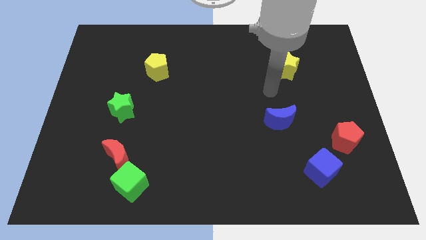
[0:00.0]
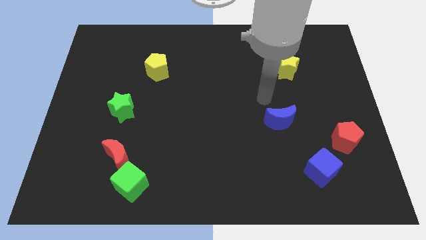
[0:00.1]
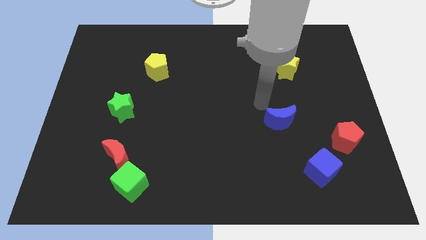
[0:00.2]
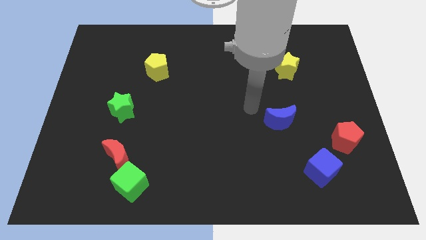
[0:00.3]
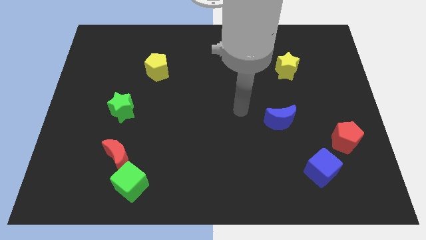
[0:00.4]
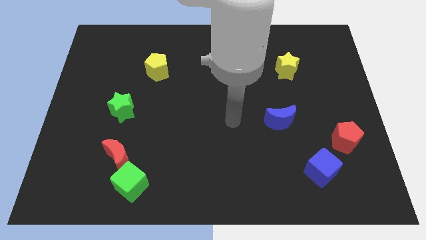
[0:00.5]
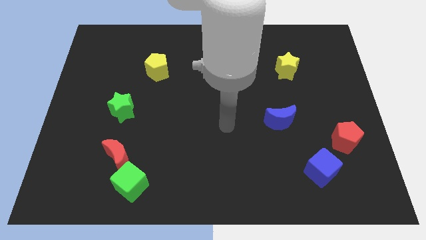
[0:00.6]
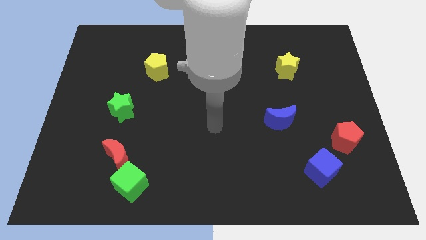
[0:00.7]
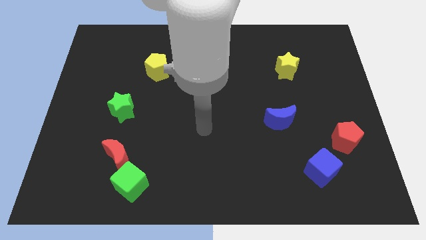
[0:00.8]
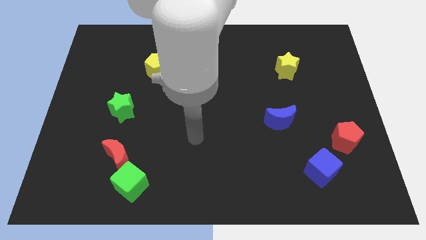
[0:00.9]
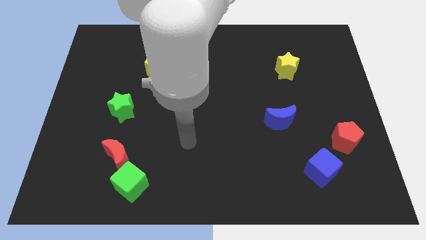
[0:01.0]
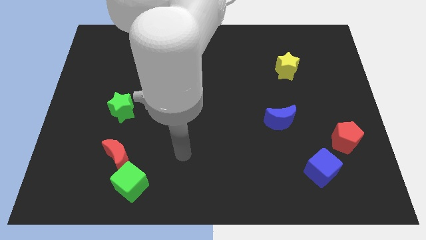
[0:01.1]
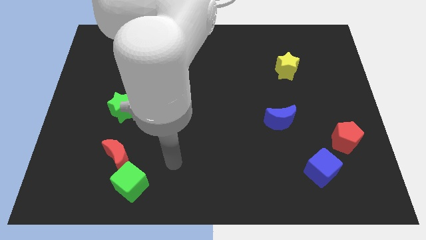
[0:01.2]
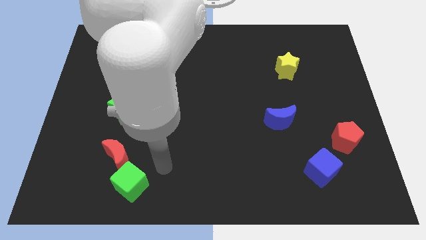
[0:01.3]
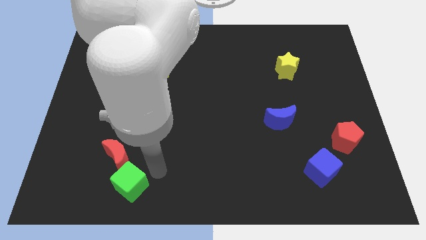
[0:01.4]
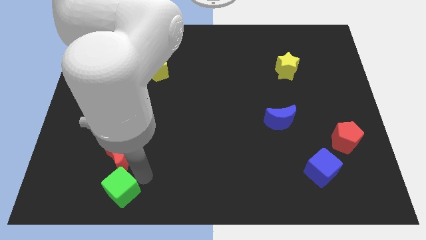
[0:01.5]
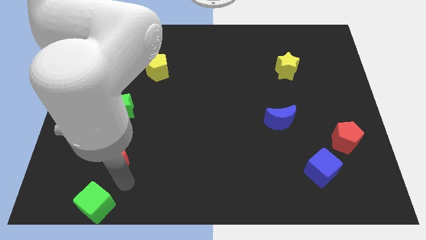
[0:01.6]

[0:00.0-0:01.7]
separate the red moon from the green cube

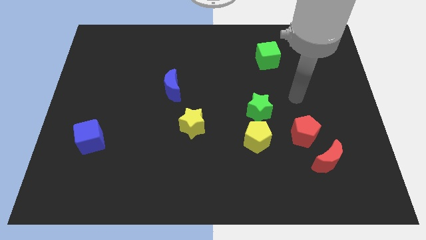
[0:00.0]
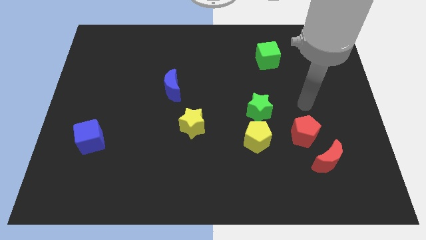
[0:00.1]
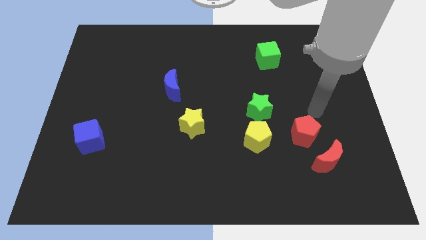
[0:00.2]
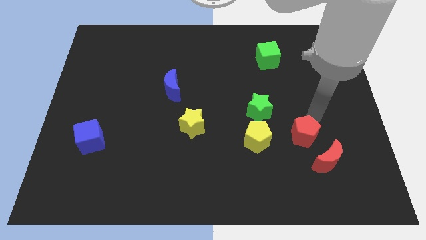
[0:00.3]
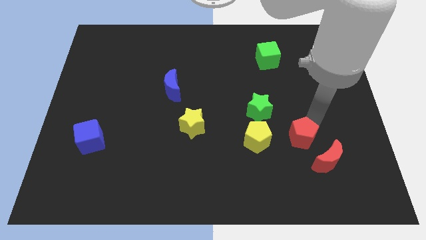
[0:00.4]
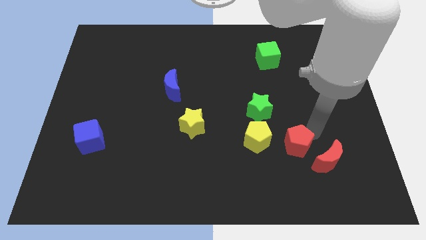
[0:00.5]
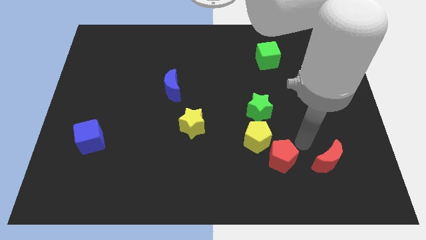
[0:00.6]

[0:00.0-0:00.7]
move the red moon away from the red pentagon

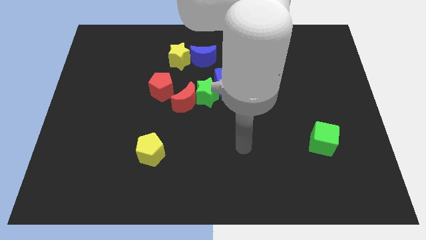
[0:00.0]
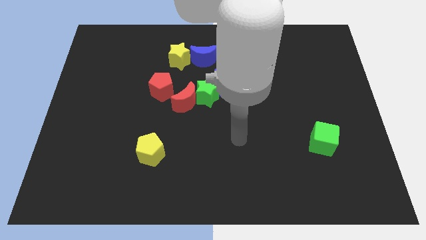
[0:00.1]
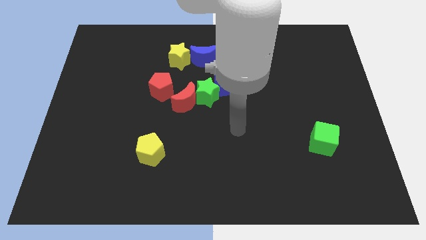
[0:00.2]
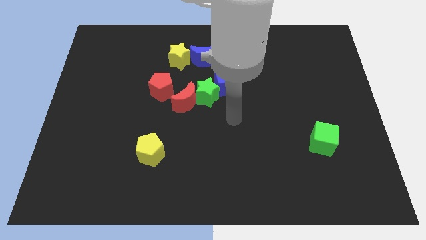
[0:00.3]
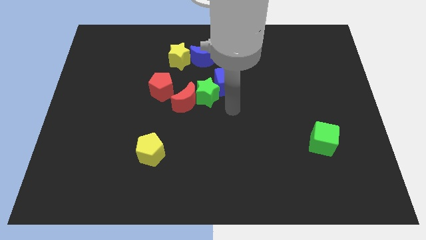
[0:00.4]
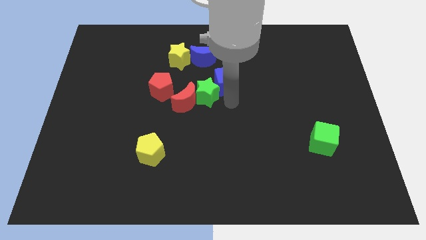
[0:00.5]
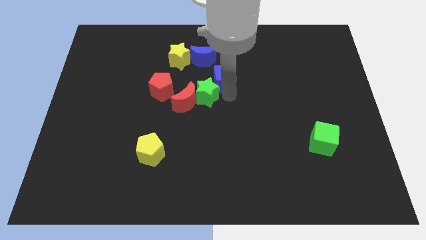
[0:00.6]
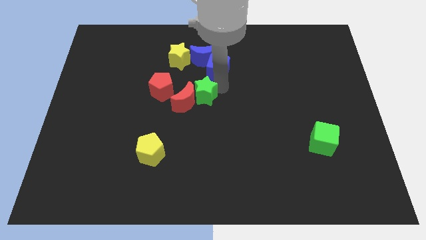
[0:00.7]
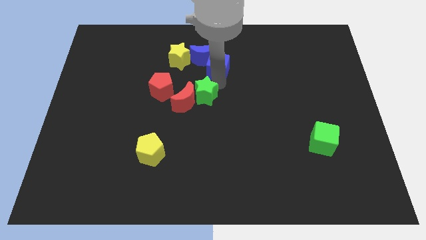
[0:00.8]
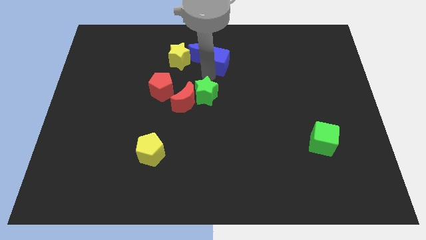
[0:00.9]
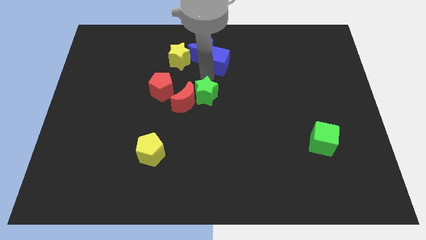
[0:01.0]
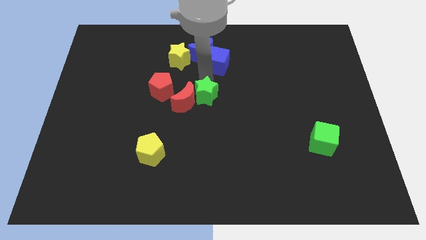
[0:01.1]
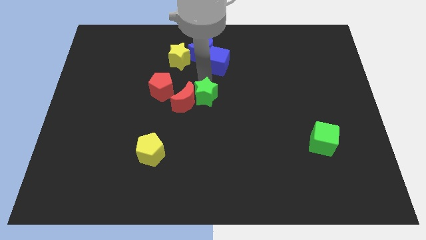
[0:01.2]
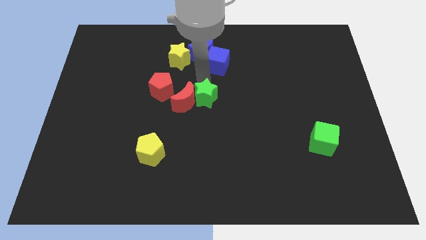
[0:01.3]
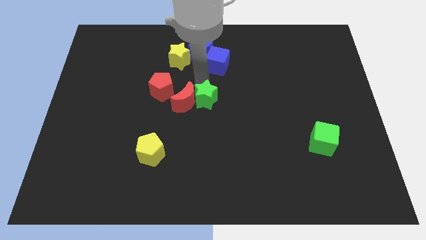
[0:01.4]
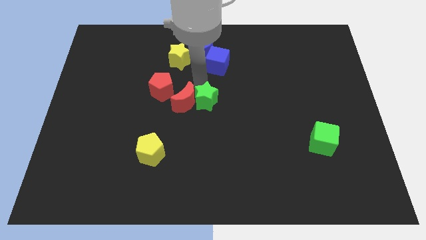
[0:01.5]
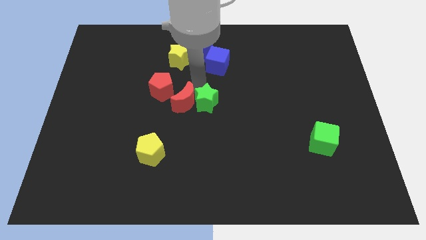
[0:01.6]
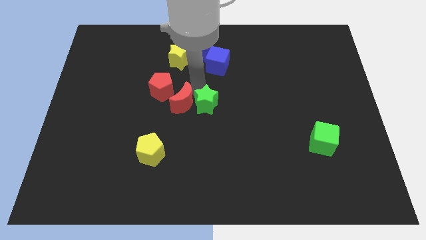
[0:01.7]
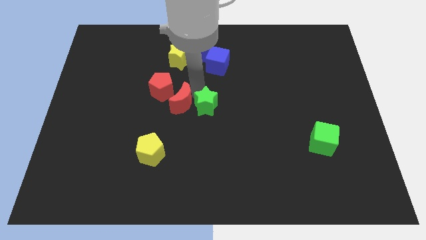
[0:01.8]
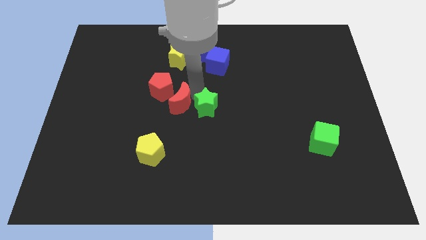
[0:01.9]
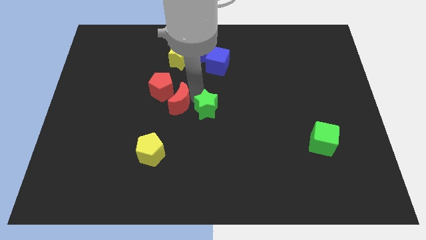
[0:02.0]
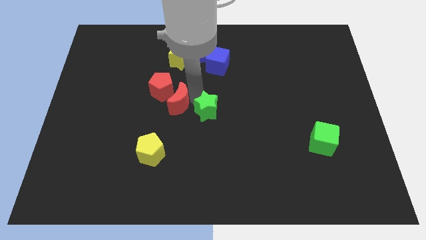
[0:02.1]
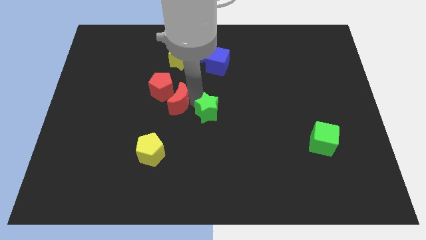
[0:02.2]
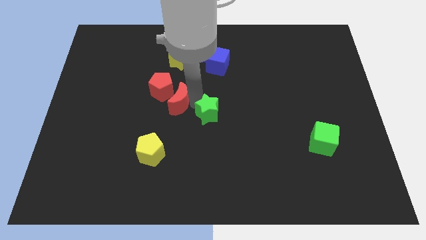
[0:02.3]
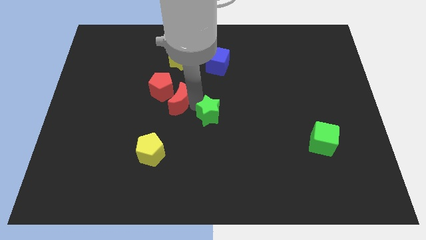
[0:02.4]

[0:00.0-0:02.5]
separate the green star from the red moon and blue cube

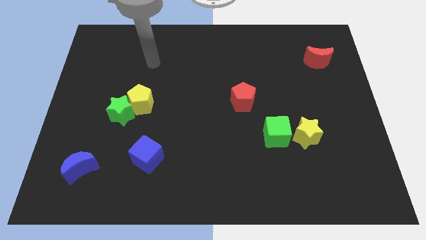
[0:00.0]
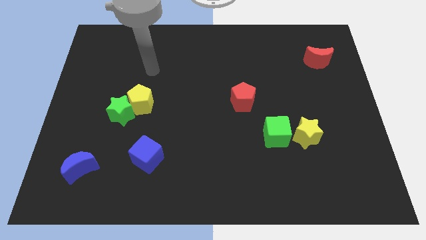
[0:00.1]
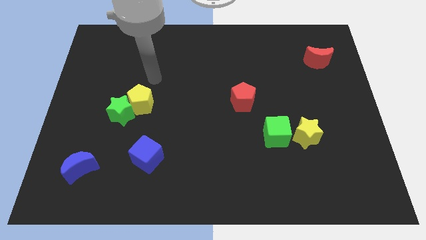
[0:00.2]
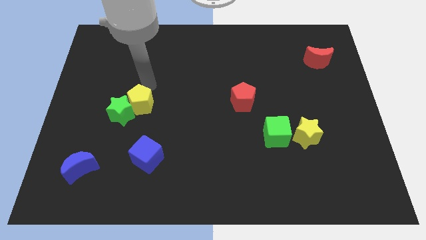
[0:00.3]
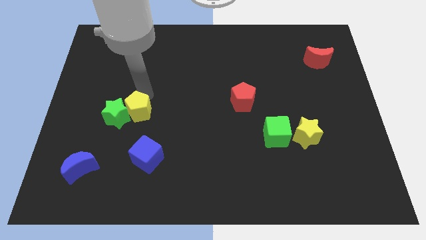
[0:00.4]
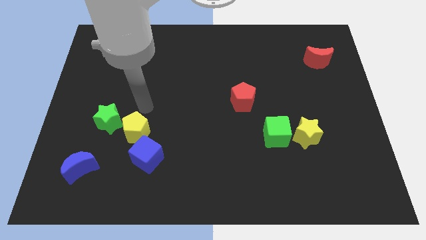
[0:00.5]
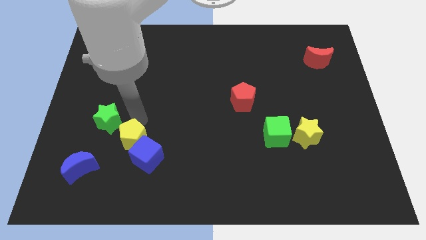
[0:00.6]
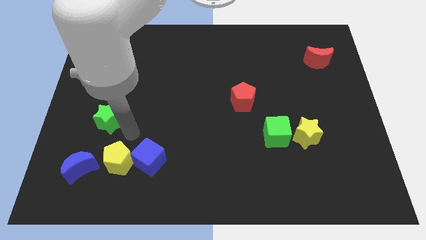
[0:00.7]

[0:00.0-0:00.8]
pull the green star apart from the yellow pentagon

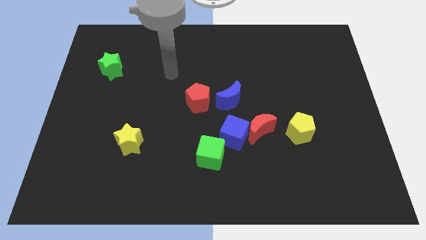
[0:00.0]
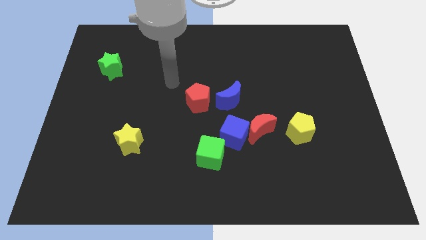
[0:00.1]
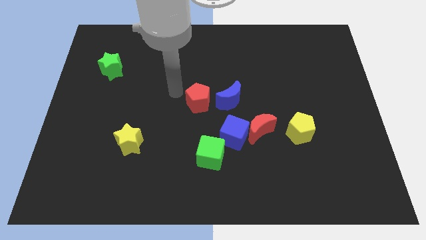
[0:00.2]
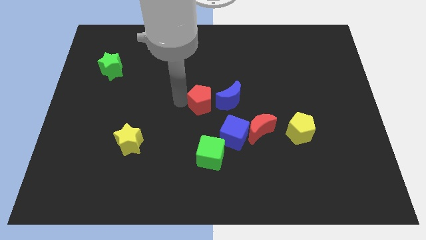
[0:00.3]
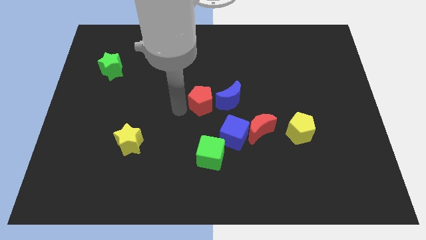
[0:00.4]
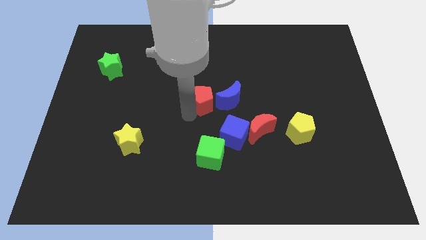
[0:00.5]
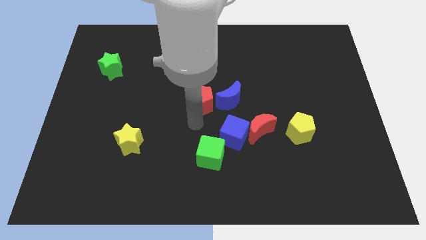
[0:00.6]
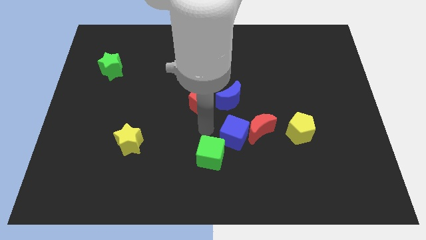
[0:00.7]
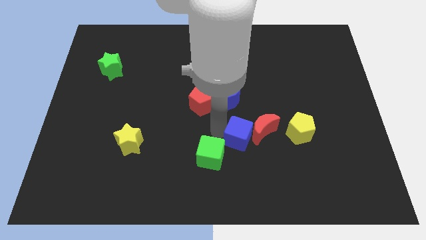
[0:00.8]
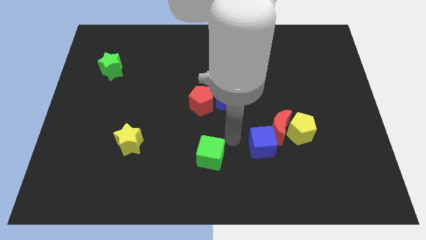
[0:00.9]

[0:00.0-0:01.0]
move the green cube away from the blue cube

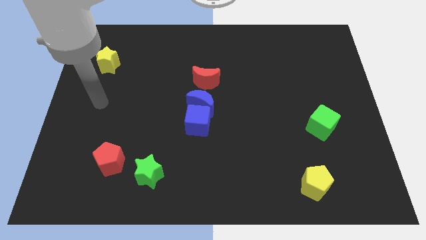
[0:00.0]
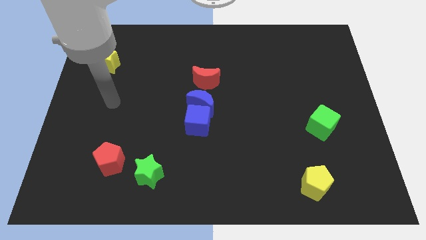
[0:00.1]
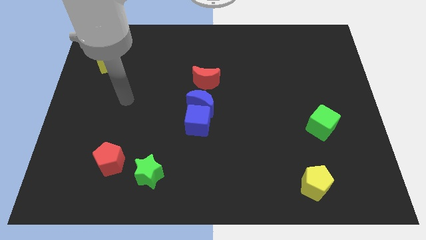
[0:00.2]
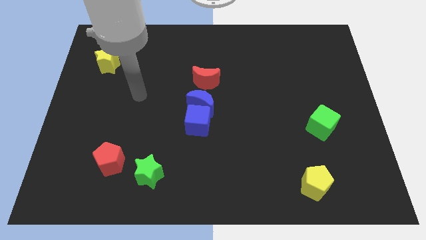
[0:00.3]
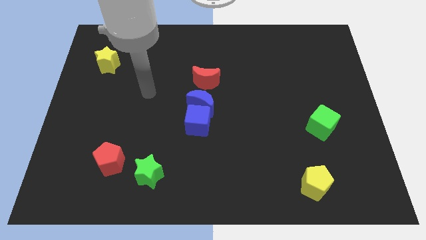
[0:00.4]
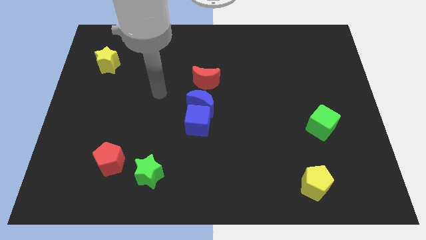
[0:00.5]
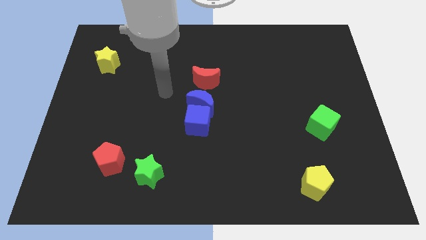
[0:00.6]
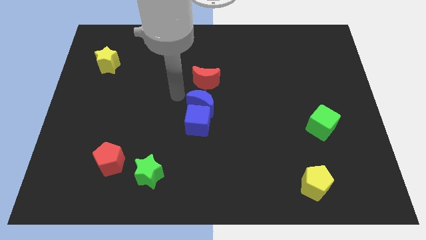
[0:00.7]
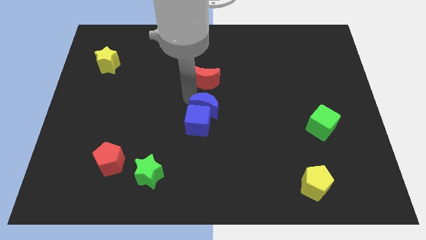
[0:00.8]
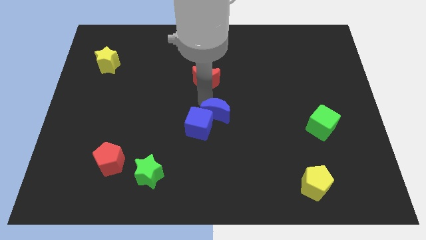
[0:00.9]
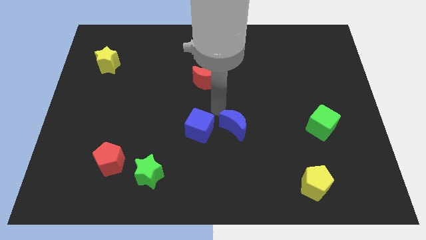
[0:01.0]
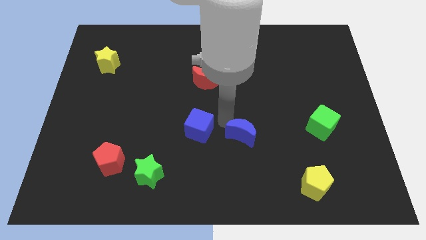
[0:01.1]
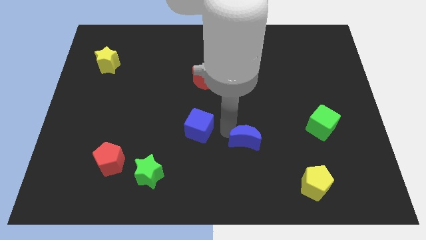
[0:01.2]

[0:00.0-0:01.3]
separate the blue cube from the blue moon

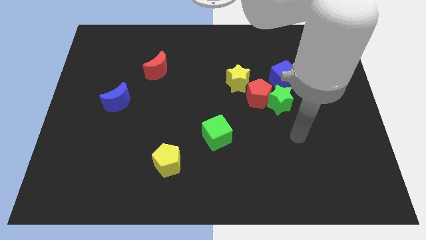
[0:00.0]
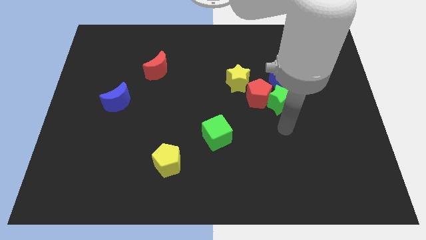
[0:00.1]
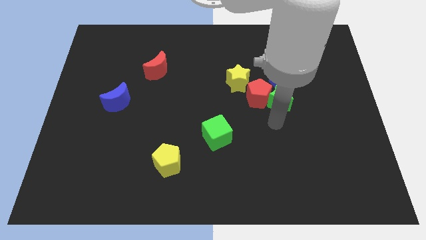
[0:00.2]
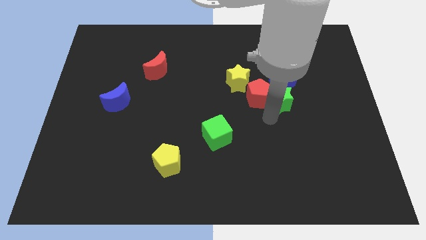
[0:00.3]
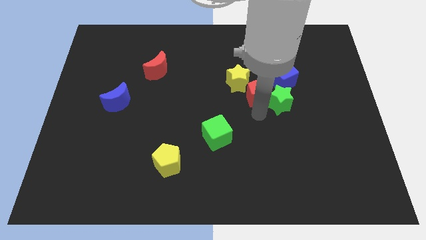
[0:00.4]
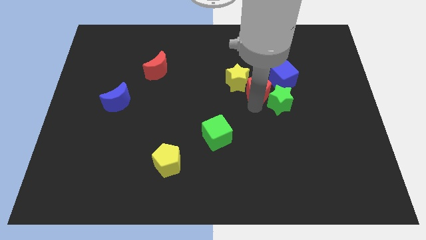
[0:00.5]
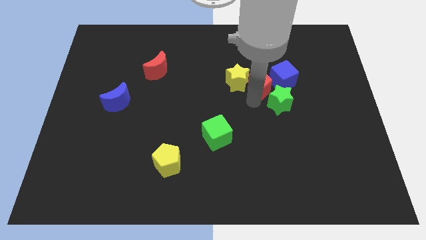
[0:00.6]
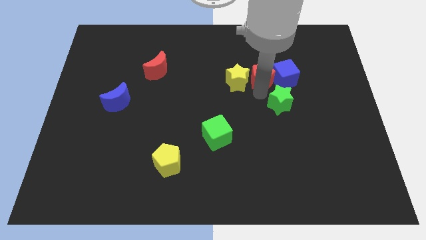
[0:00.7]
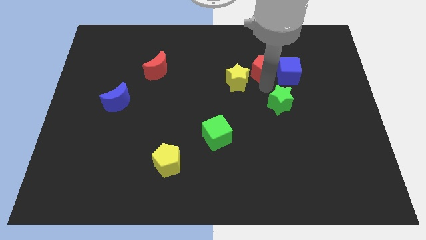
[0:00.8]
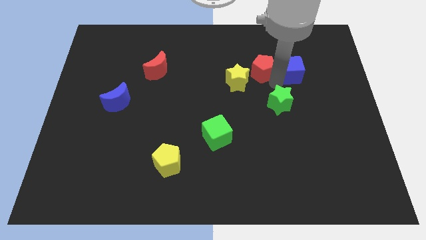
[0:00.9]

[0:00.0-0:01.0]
separate the green star from the red pentagon and blue cube

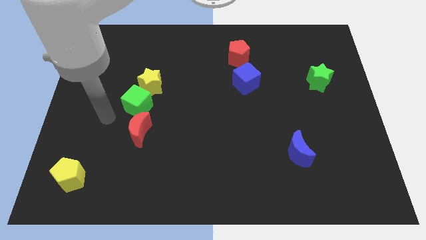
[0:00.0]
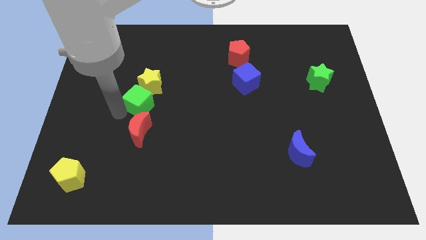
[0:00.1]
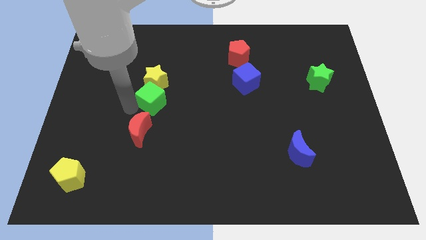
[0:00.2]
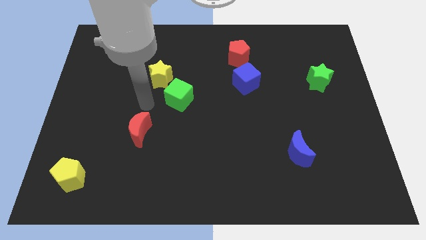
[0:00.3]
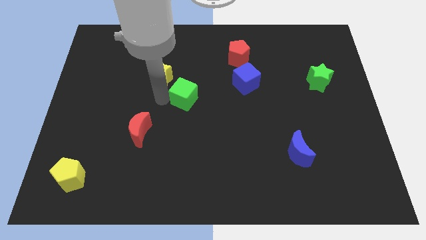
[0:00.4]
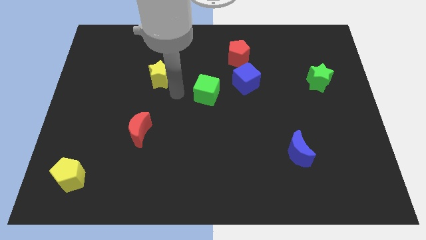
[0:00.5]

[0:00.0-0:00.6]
pull the yellow star apart from the green cube
